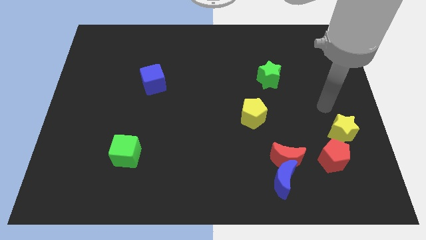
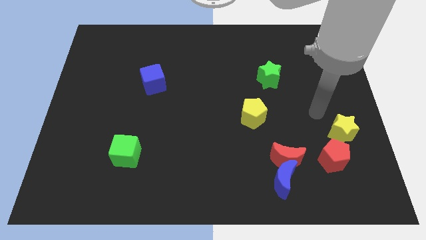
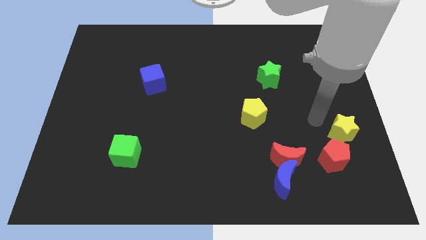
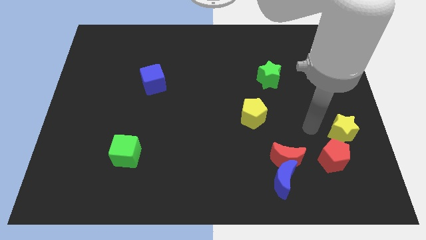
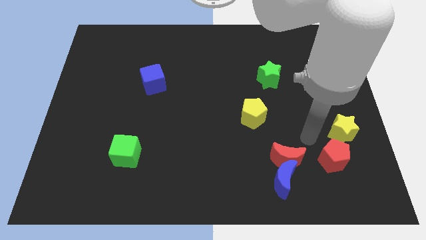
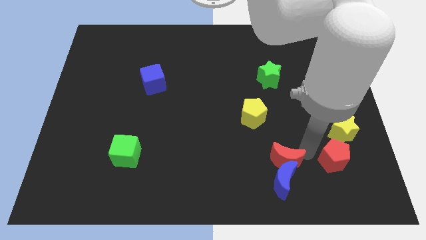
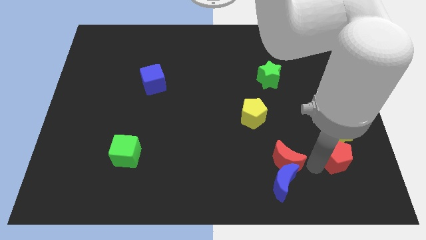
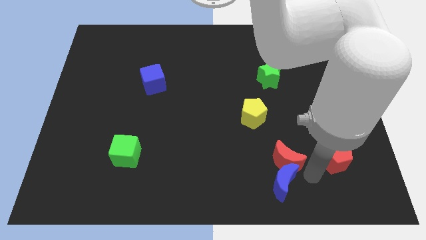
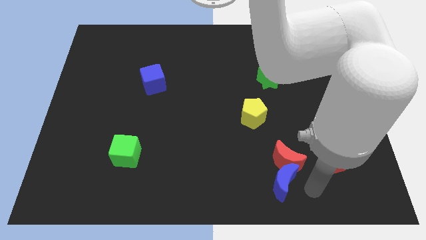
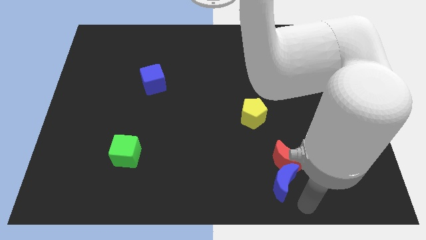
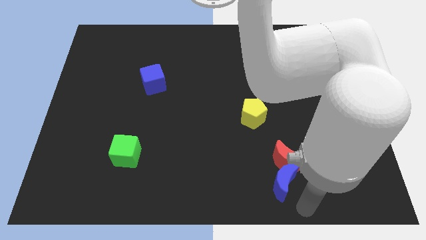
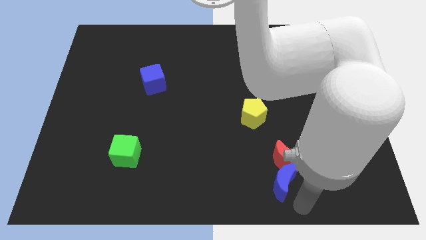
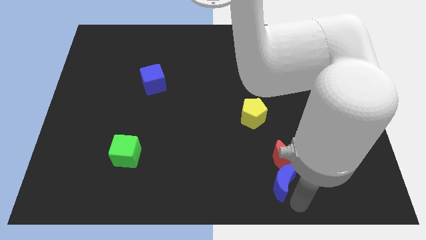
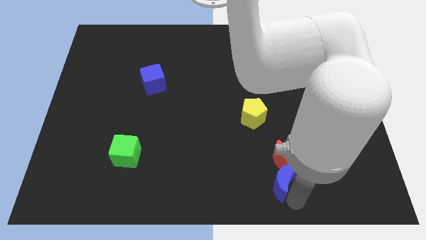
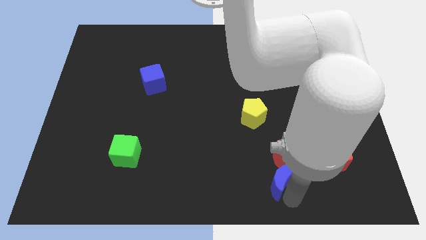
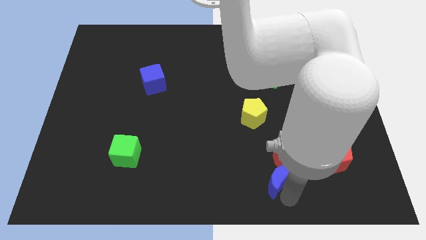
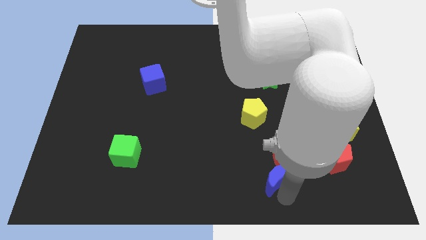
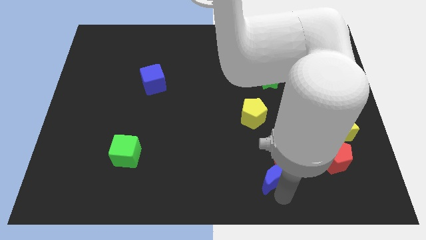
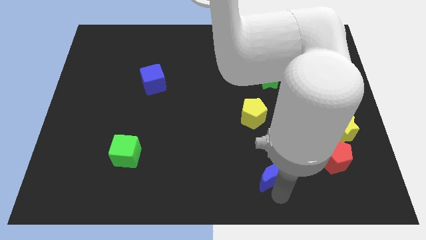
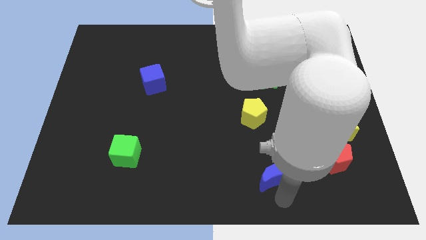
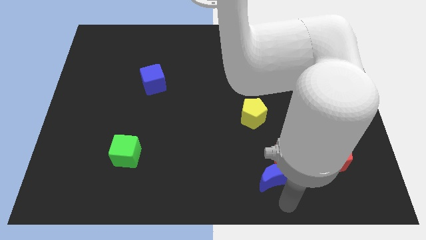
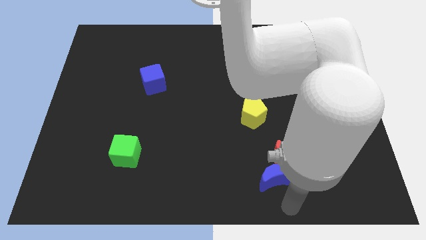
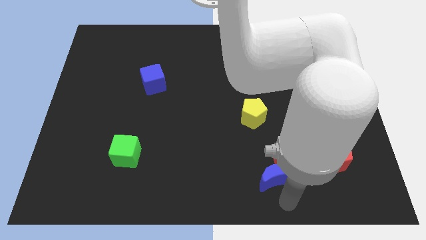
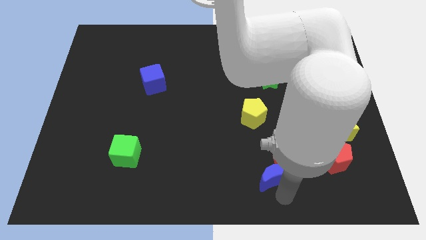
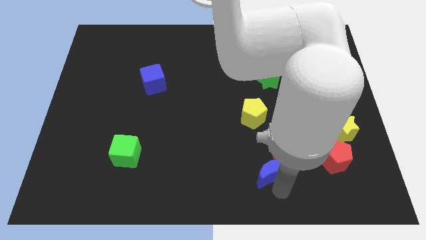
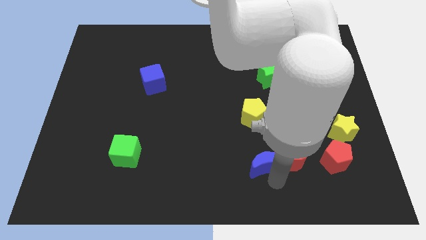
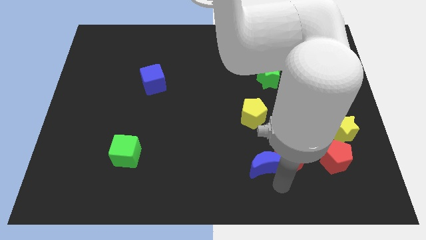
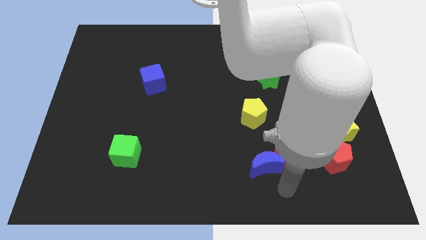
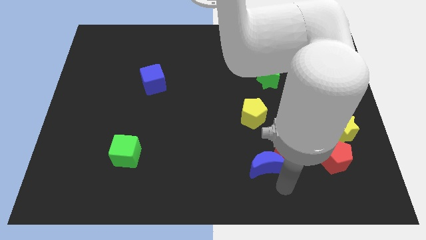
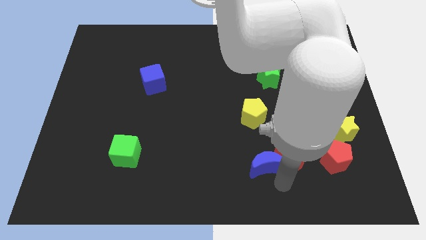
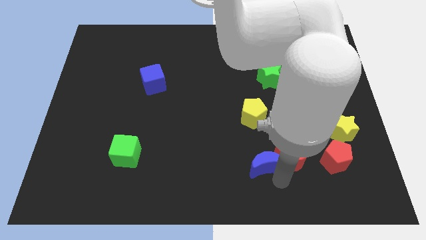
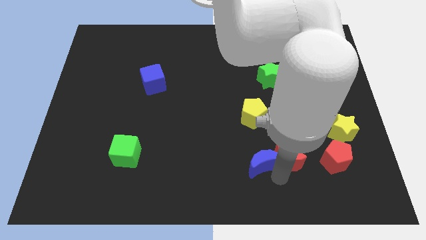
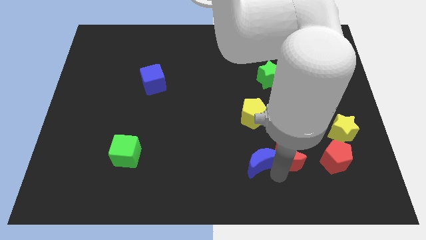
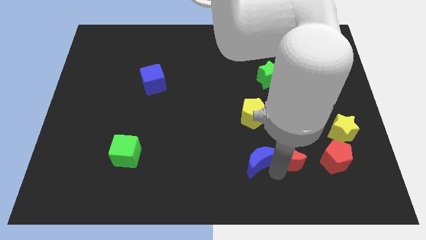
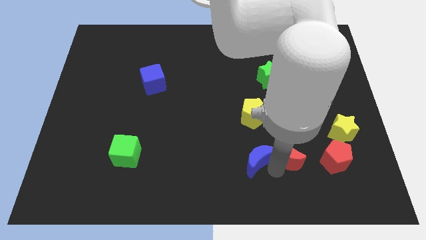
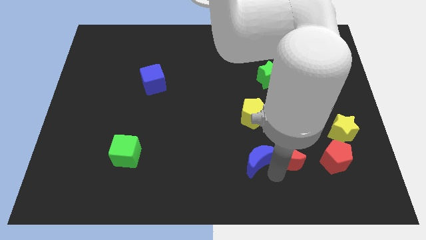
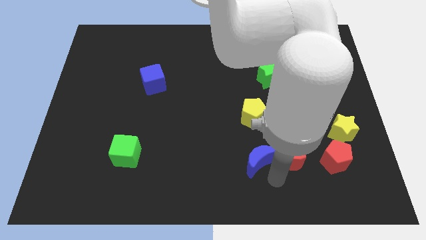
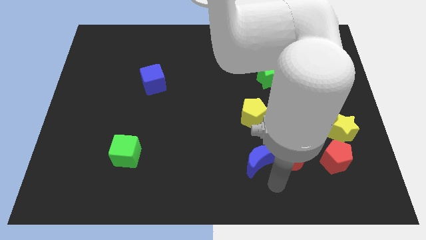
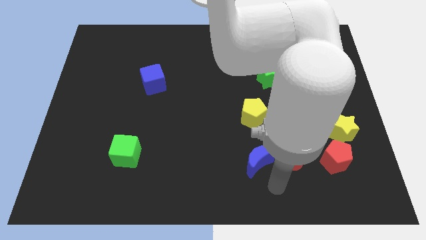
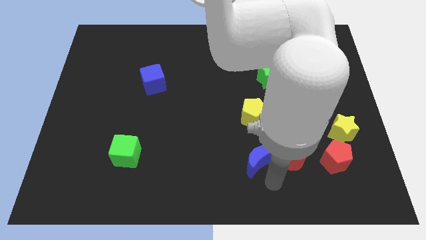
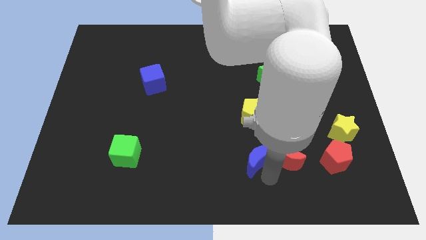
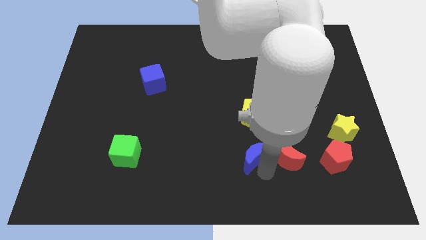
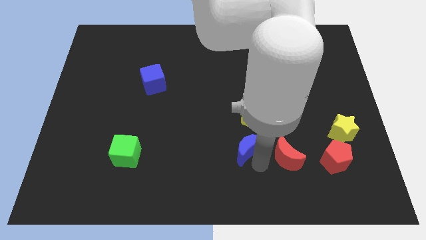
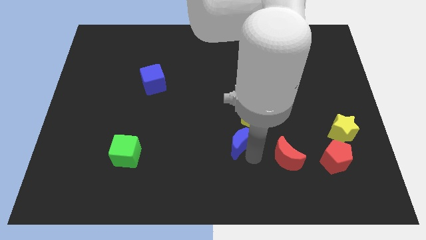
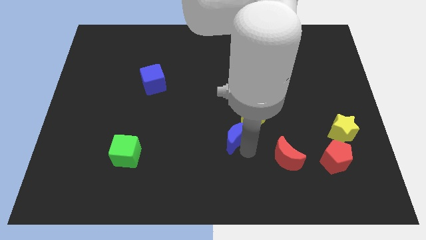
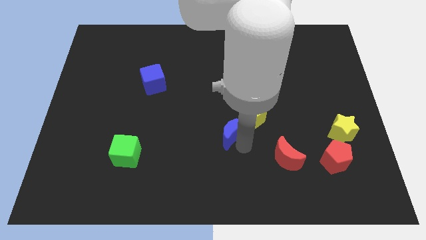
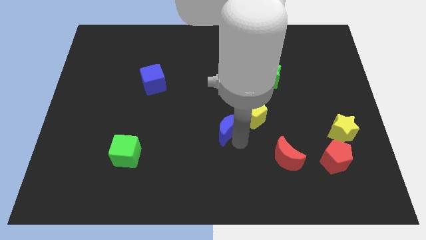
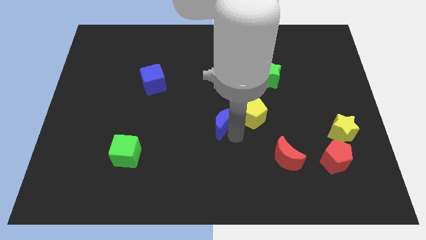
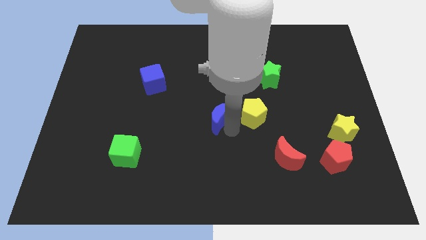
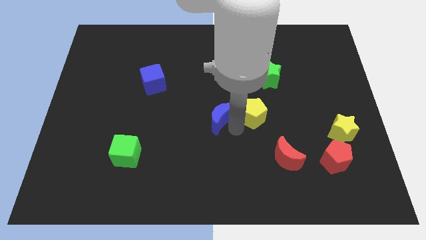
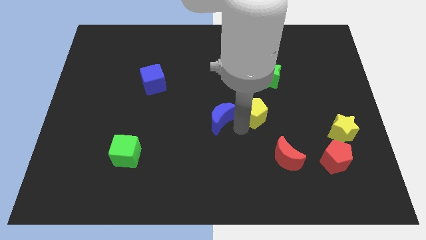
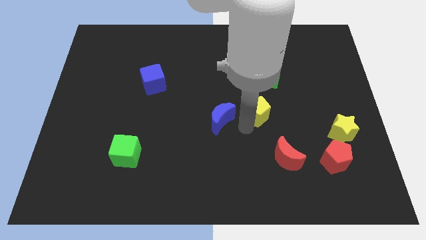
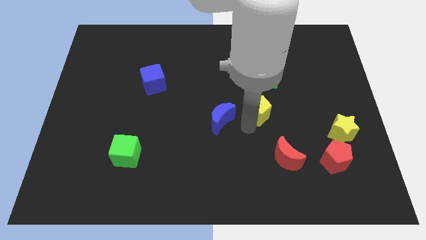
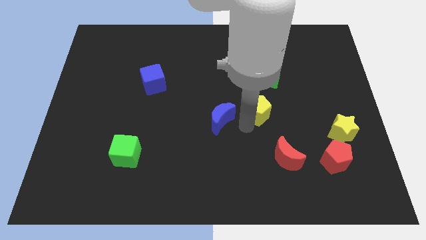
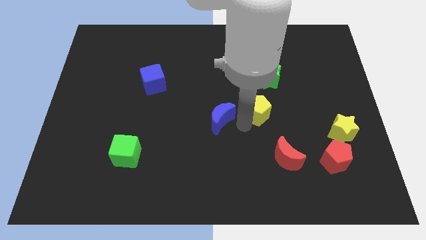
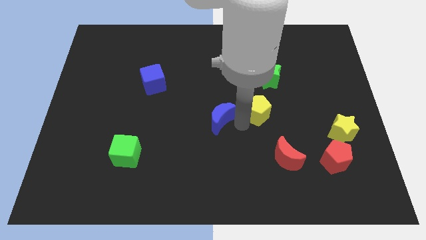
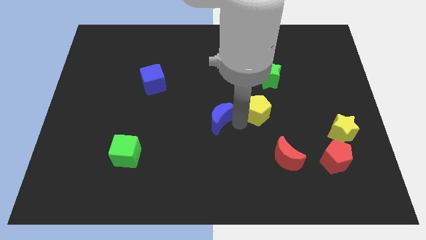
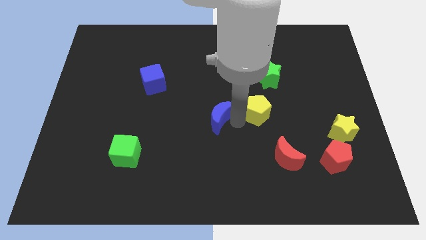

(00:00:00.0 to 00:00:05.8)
move the blue moon upwards and left diagonally

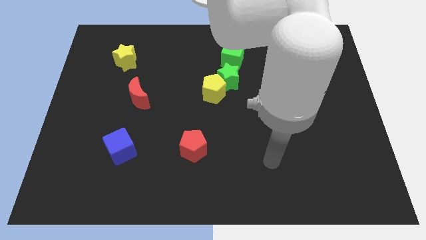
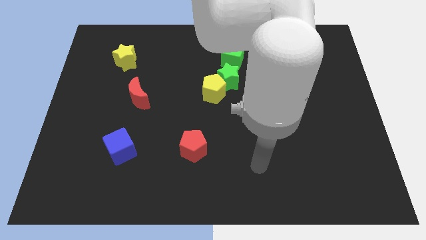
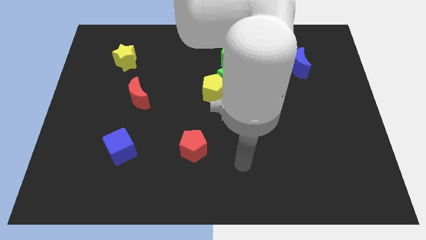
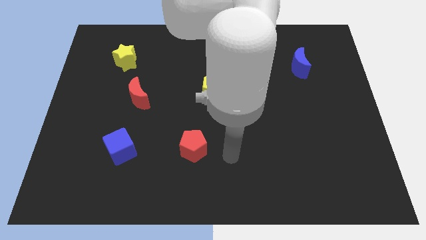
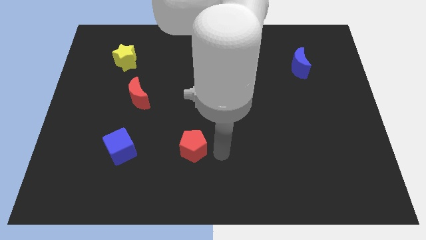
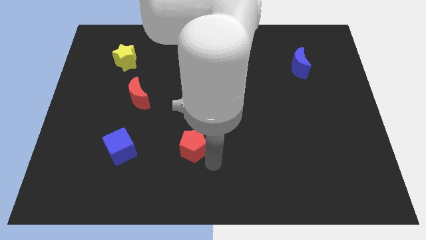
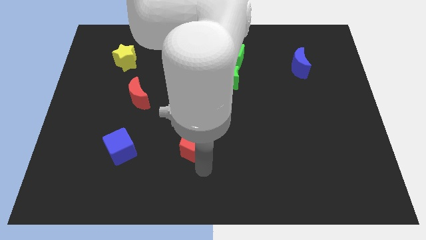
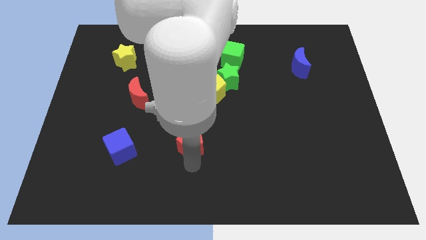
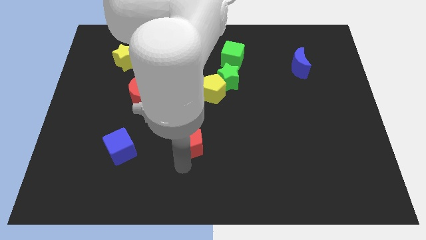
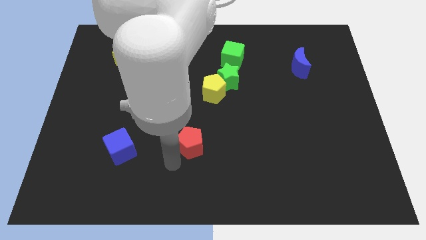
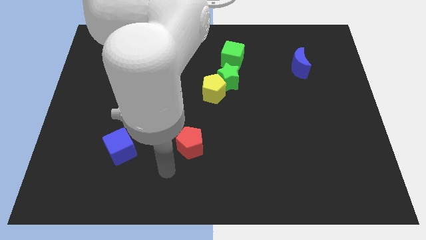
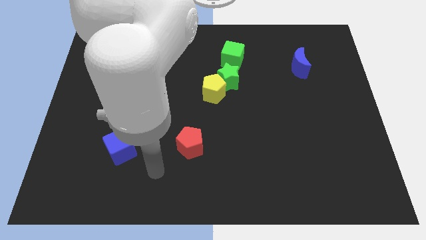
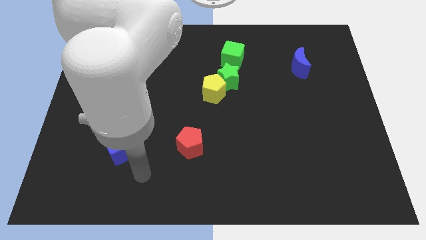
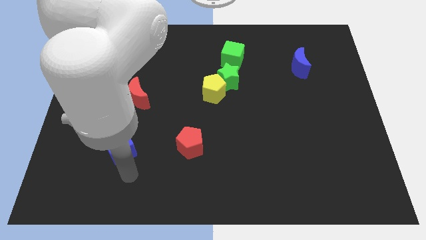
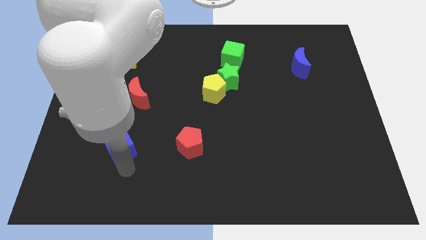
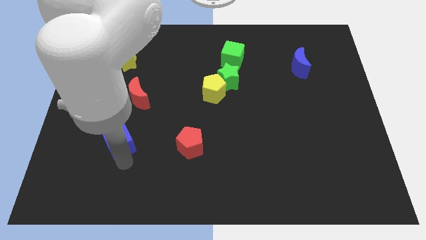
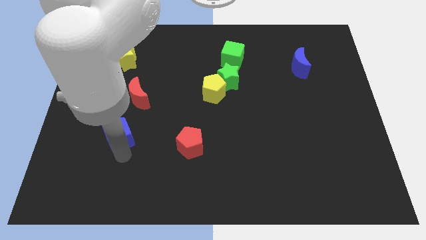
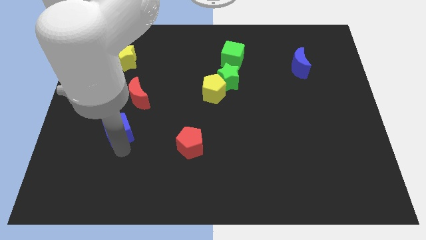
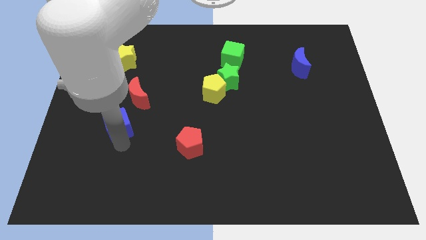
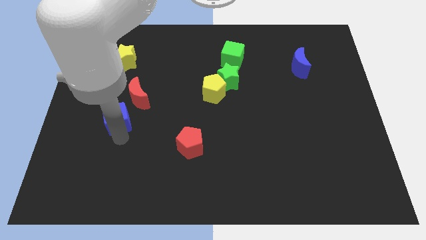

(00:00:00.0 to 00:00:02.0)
slightly push the blue cube upwards
